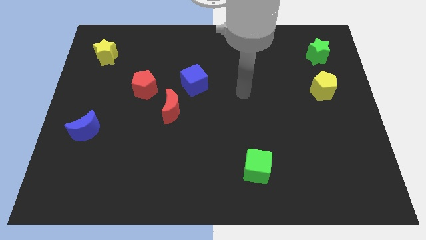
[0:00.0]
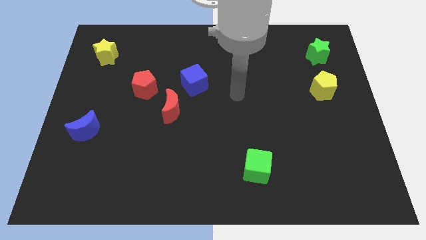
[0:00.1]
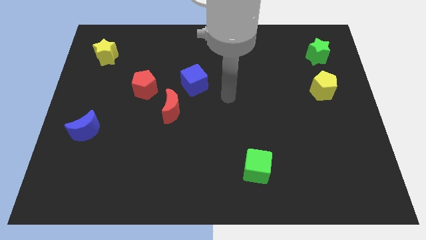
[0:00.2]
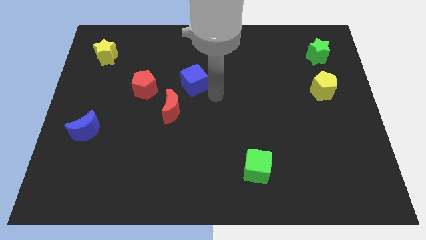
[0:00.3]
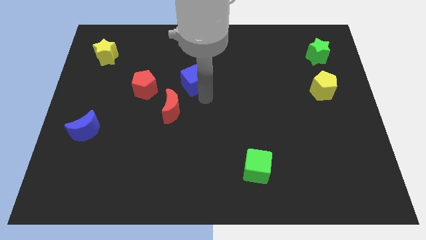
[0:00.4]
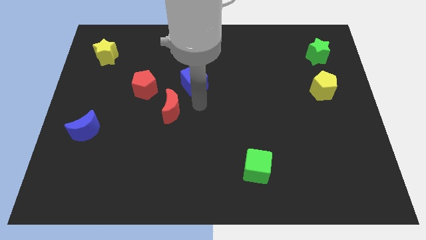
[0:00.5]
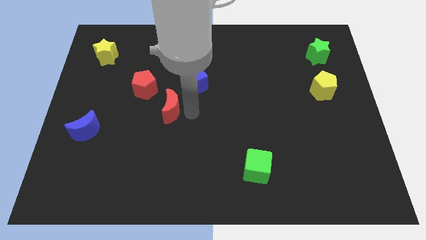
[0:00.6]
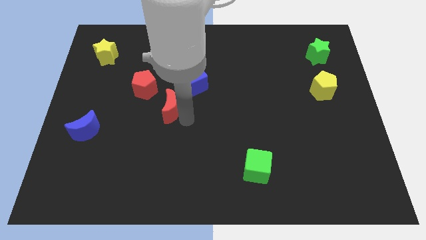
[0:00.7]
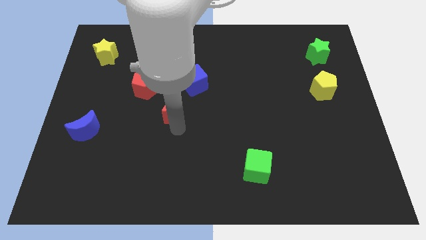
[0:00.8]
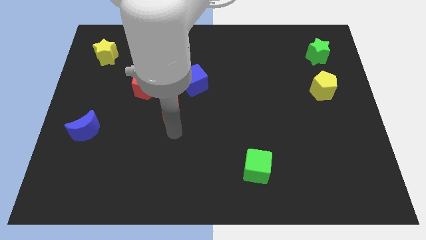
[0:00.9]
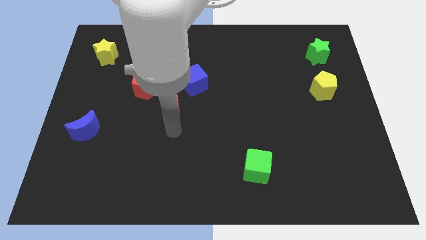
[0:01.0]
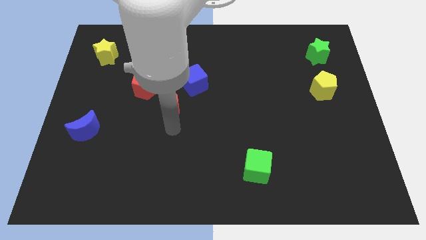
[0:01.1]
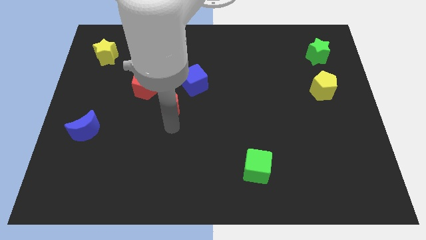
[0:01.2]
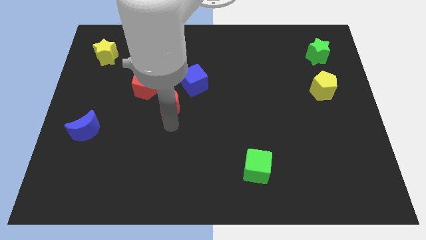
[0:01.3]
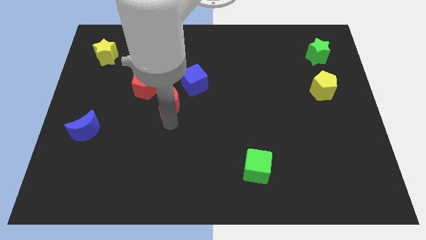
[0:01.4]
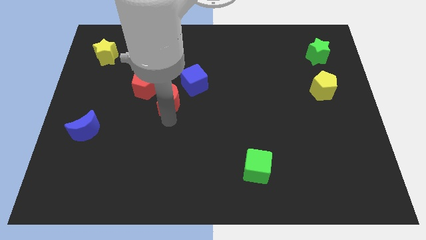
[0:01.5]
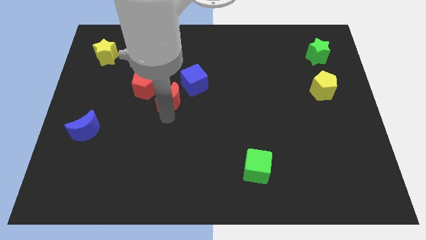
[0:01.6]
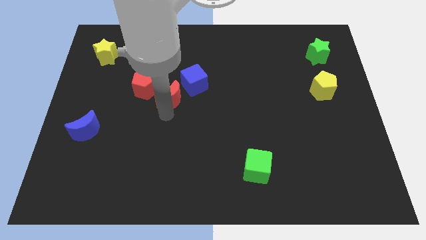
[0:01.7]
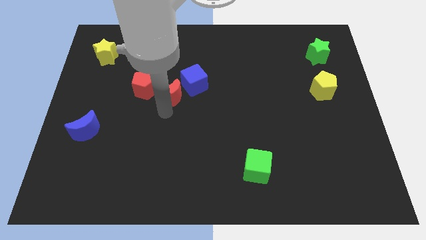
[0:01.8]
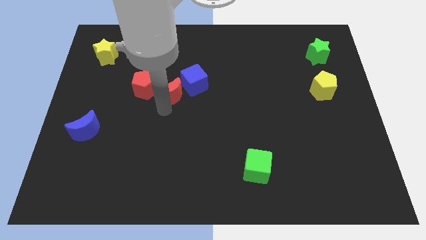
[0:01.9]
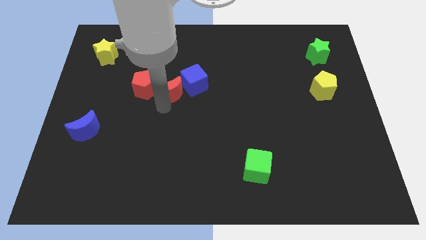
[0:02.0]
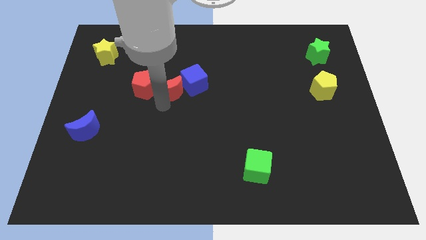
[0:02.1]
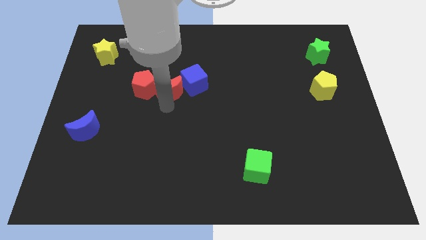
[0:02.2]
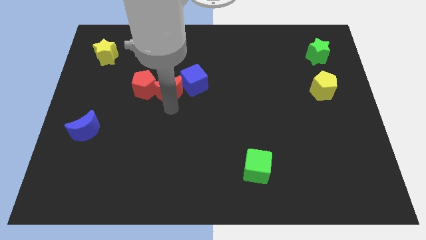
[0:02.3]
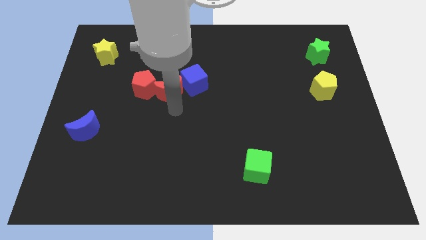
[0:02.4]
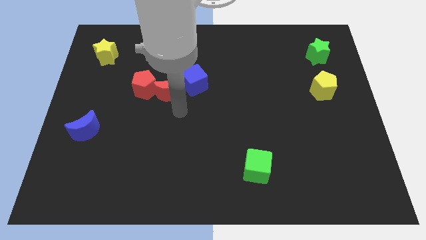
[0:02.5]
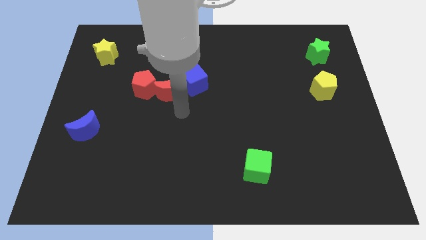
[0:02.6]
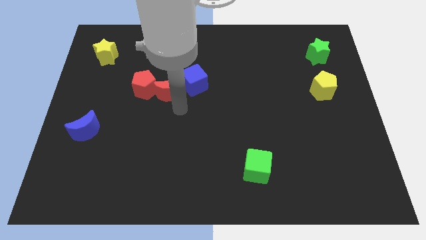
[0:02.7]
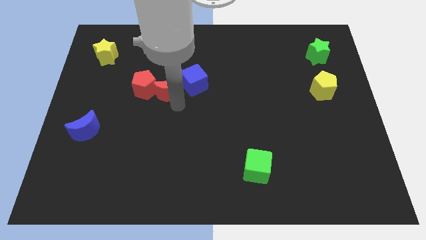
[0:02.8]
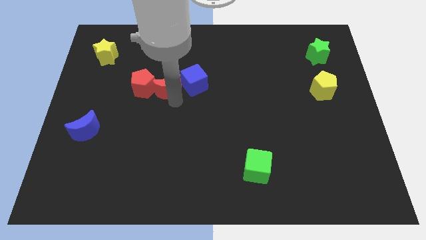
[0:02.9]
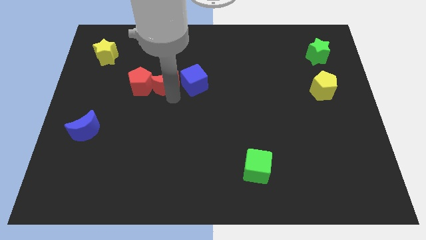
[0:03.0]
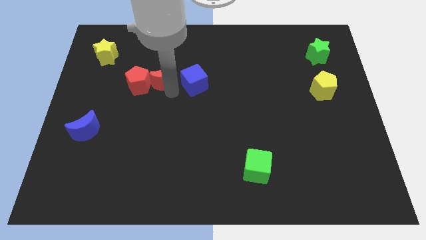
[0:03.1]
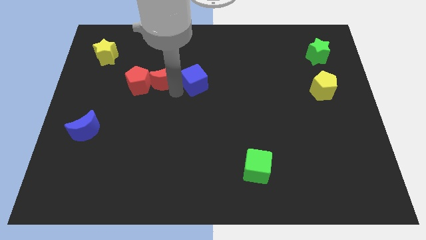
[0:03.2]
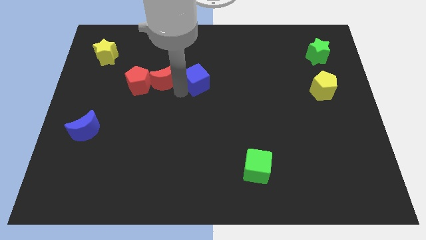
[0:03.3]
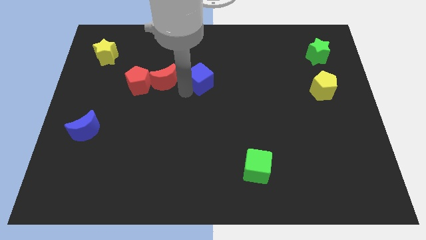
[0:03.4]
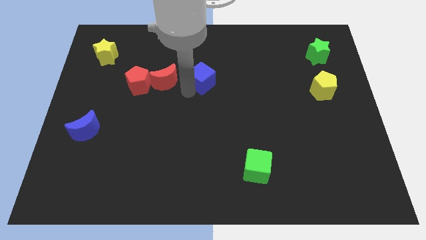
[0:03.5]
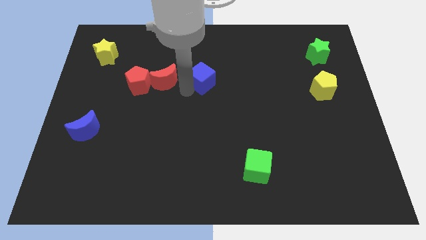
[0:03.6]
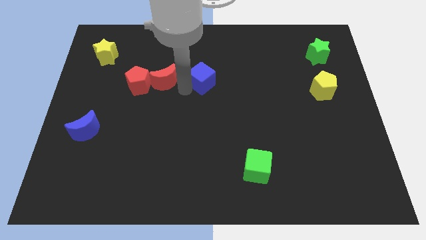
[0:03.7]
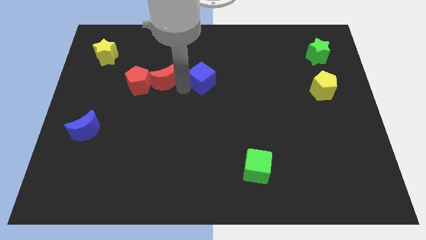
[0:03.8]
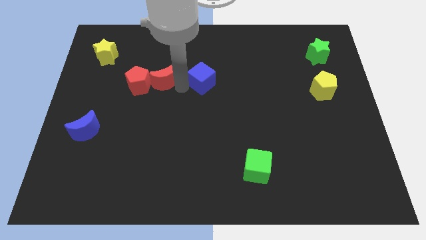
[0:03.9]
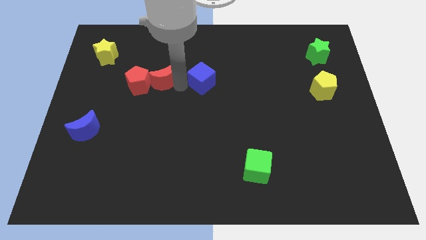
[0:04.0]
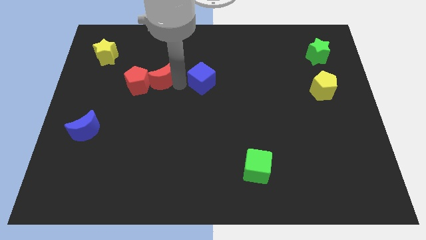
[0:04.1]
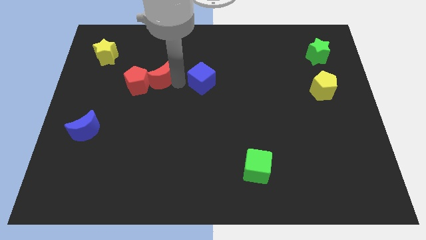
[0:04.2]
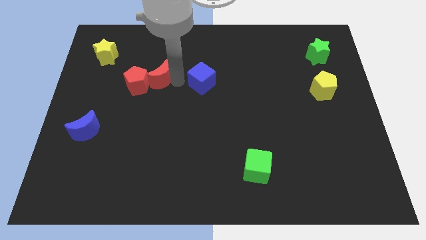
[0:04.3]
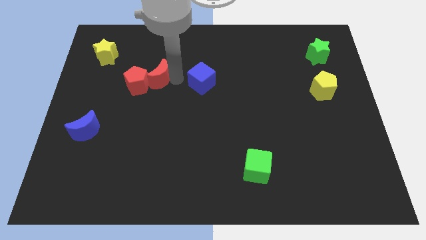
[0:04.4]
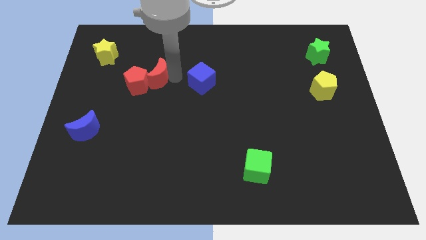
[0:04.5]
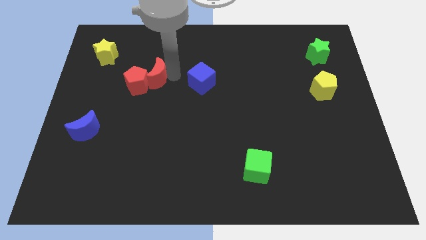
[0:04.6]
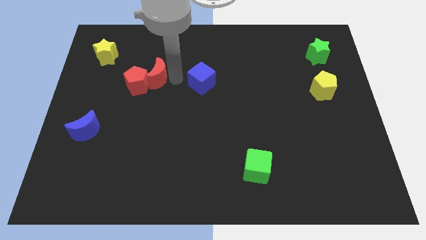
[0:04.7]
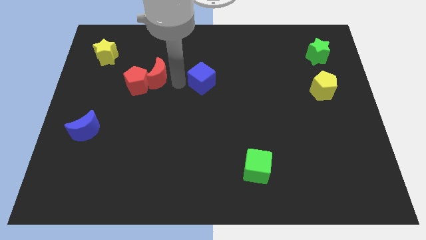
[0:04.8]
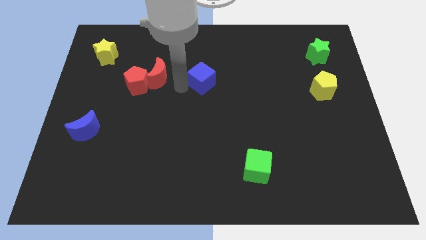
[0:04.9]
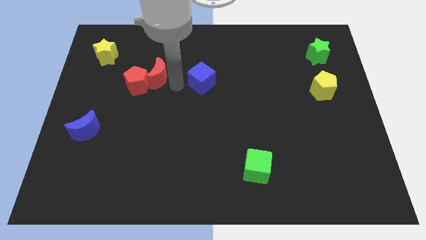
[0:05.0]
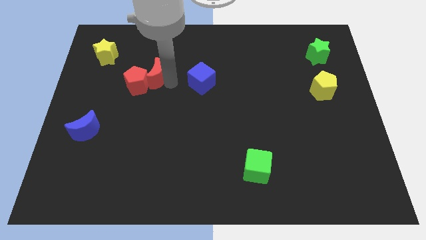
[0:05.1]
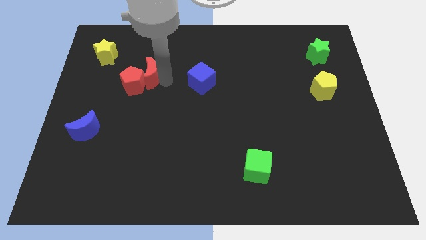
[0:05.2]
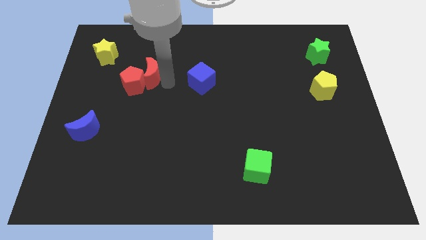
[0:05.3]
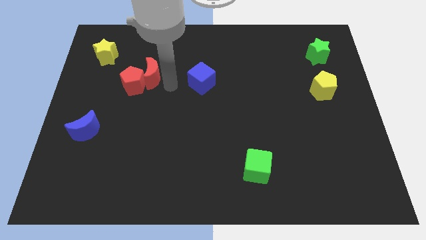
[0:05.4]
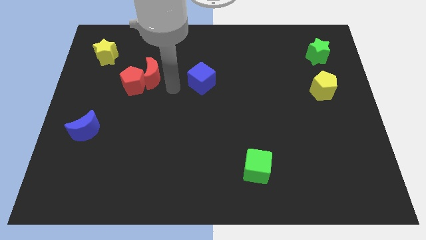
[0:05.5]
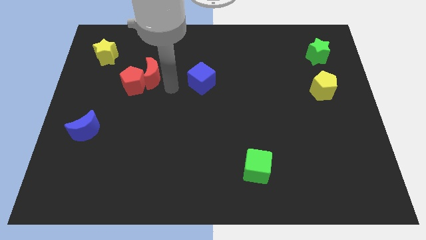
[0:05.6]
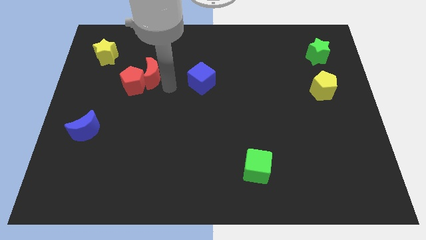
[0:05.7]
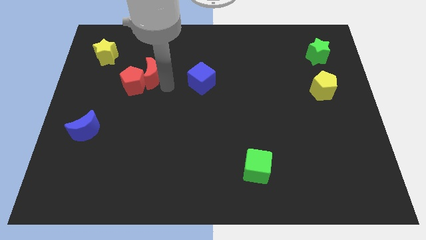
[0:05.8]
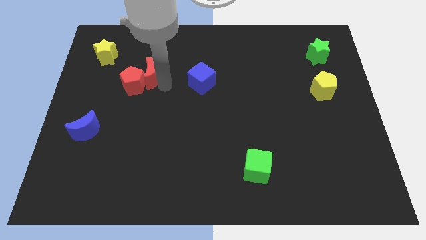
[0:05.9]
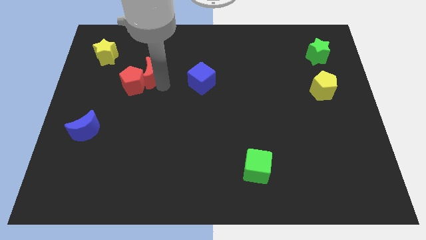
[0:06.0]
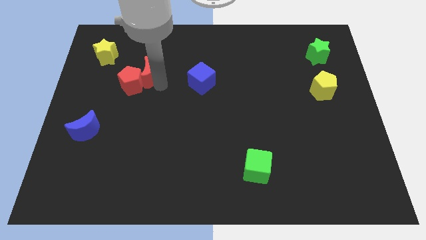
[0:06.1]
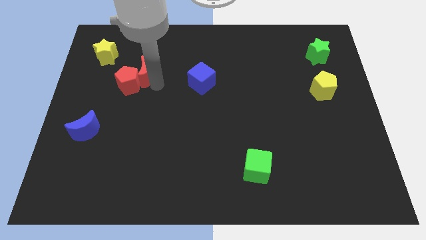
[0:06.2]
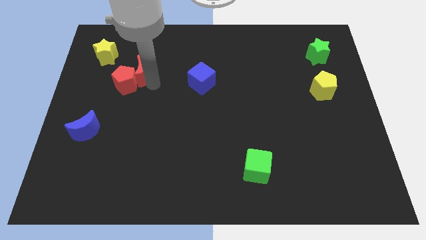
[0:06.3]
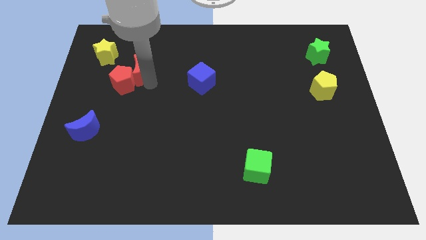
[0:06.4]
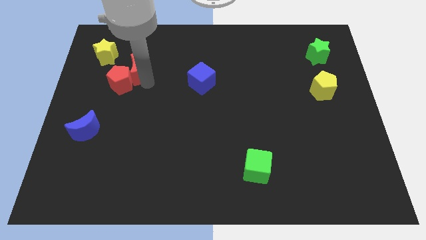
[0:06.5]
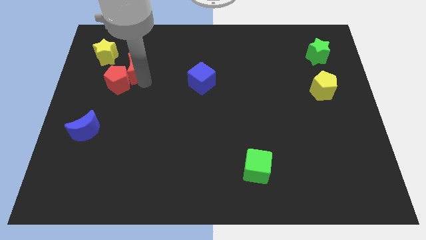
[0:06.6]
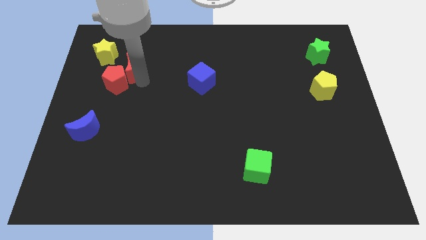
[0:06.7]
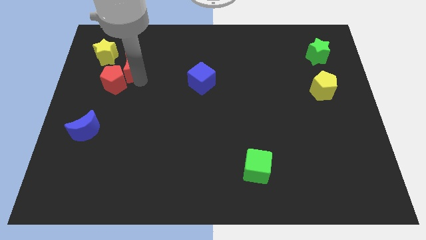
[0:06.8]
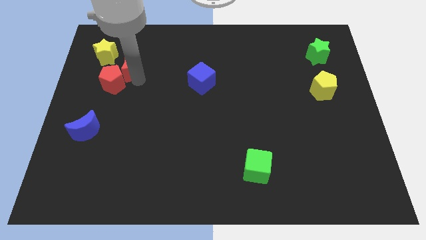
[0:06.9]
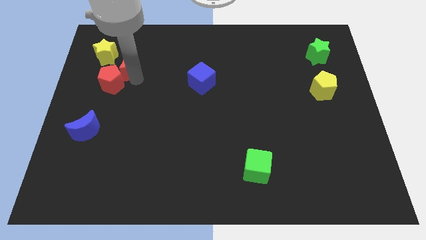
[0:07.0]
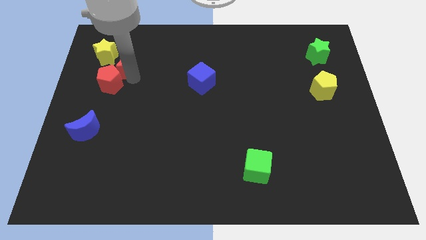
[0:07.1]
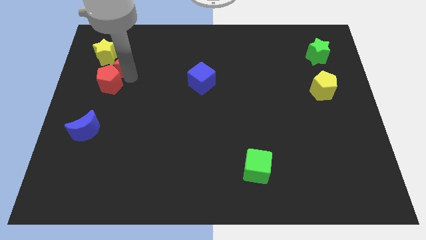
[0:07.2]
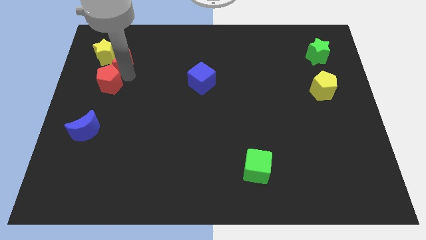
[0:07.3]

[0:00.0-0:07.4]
push the red moon next to the yellow star

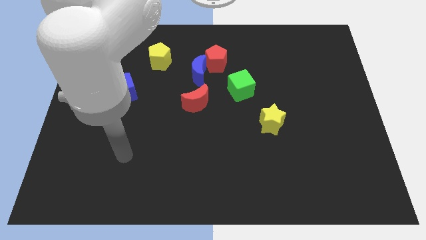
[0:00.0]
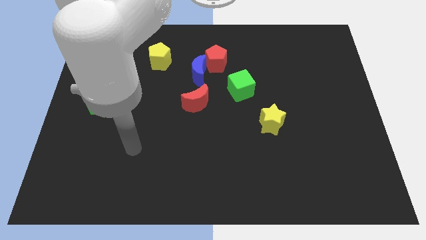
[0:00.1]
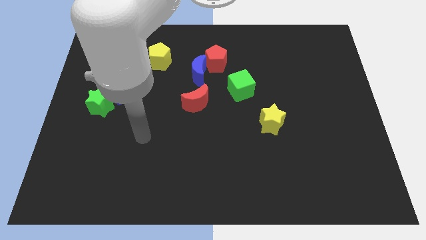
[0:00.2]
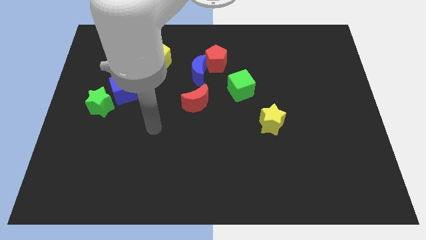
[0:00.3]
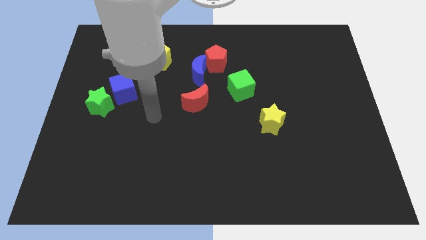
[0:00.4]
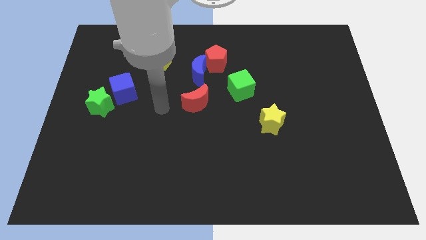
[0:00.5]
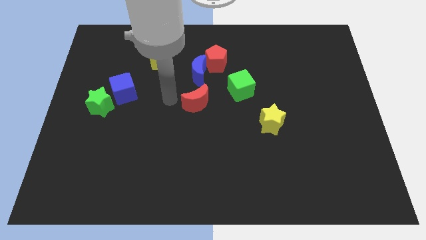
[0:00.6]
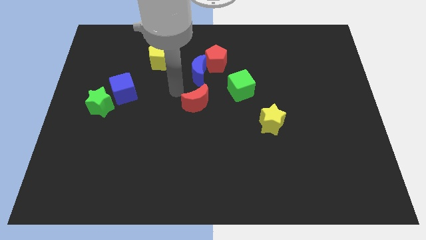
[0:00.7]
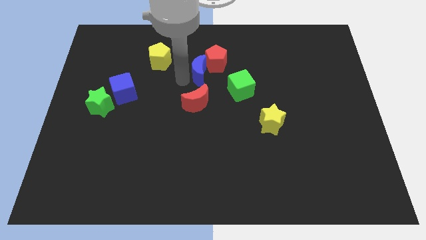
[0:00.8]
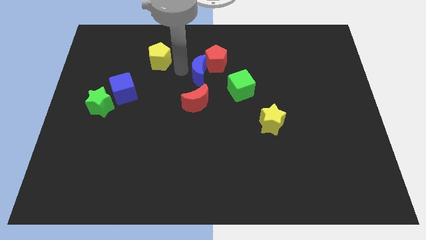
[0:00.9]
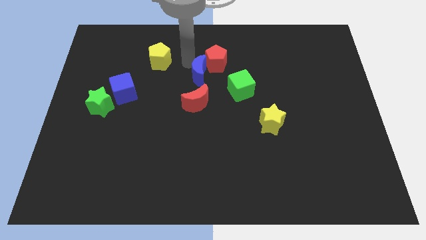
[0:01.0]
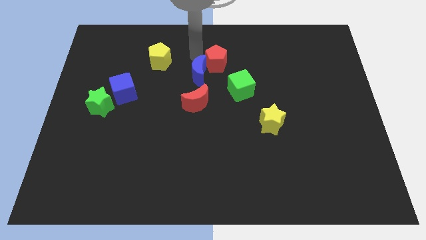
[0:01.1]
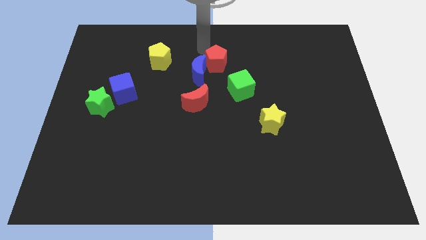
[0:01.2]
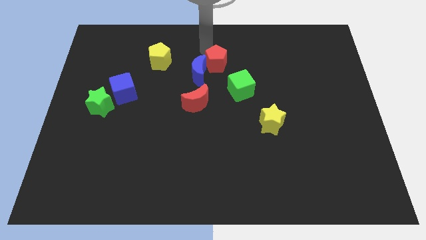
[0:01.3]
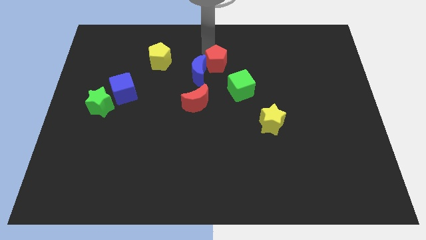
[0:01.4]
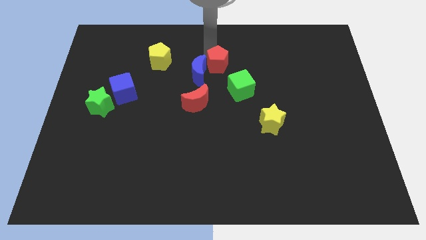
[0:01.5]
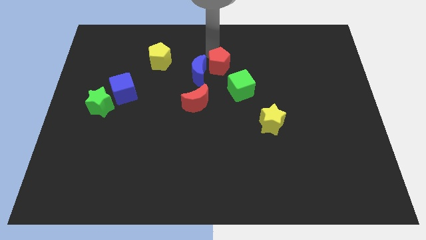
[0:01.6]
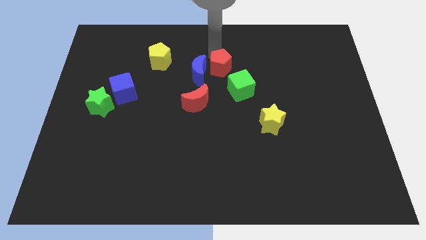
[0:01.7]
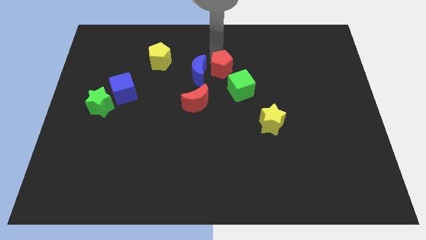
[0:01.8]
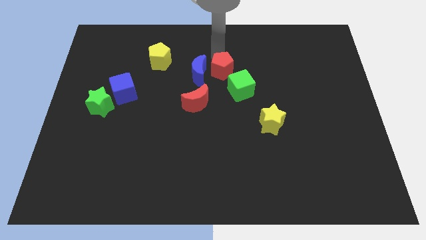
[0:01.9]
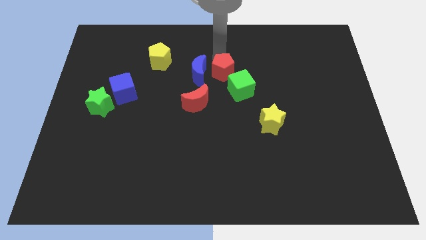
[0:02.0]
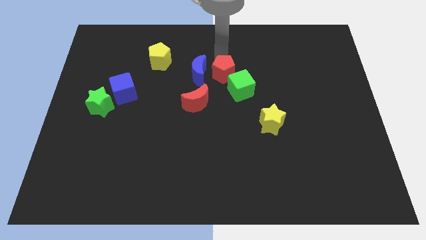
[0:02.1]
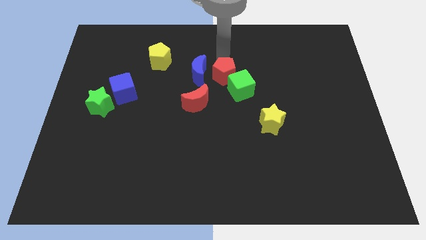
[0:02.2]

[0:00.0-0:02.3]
push the red pentagon next to the green cube
